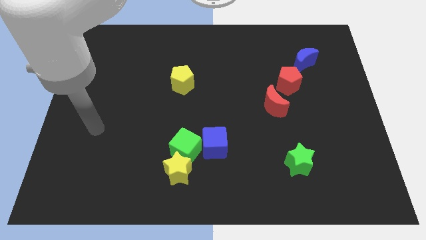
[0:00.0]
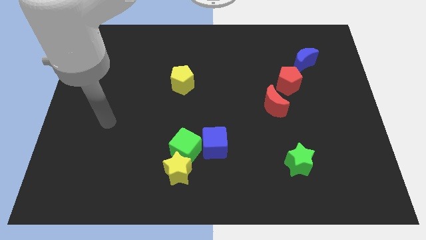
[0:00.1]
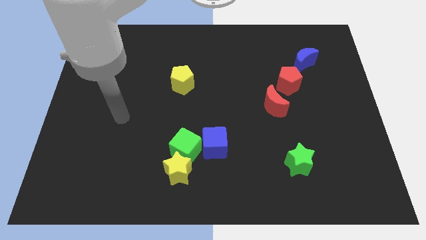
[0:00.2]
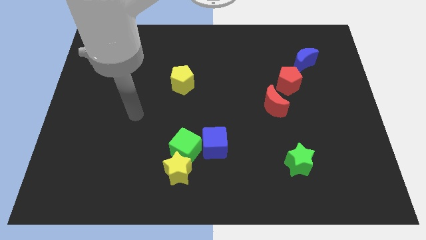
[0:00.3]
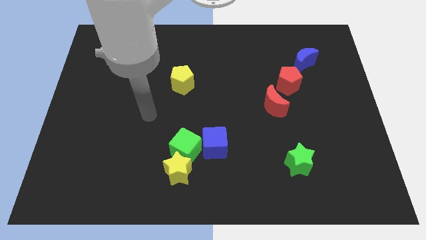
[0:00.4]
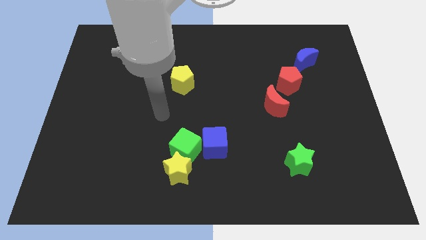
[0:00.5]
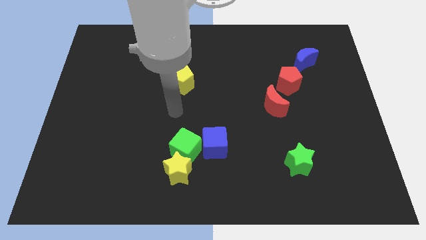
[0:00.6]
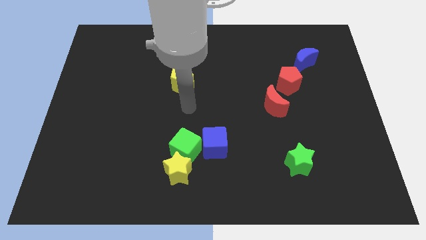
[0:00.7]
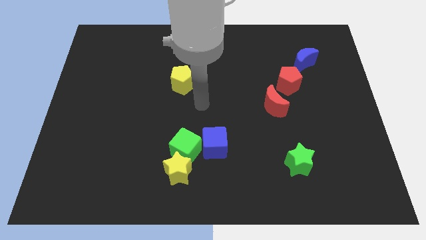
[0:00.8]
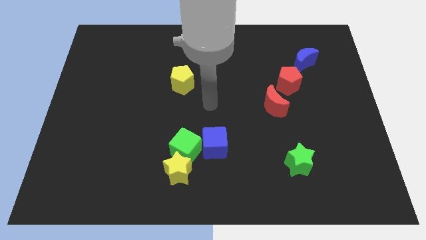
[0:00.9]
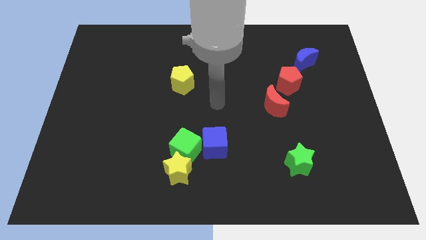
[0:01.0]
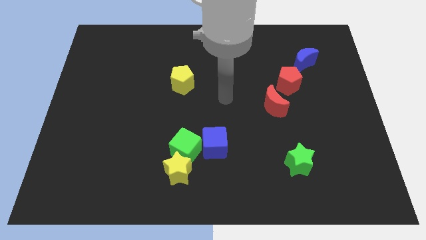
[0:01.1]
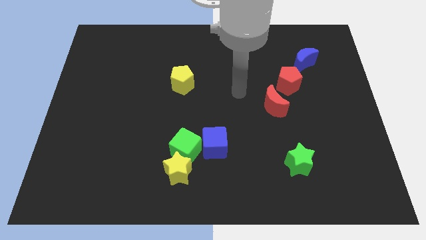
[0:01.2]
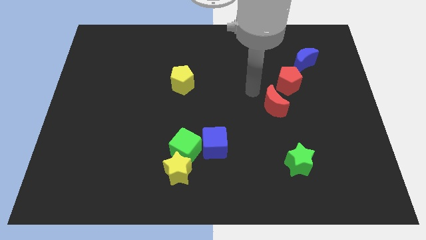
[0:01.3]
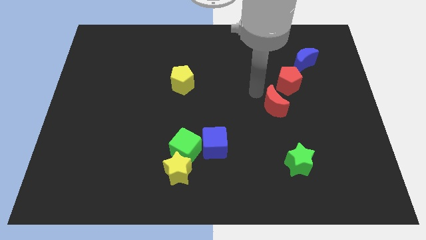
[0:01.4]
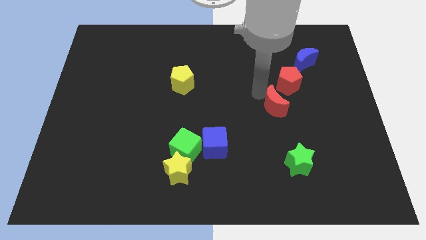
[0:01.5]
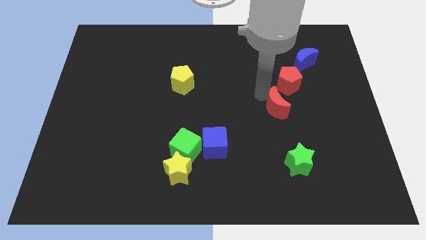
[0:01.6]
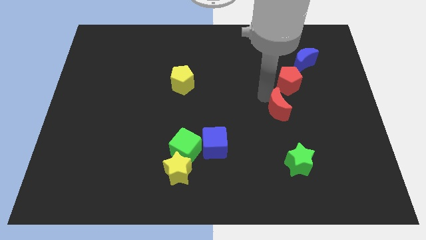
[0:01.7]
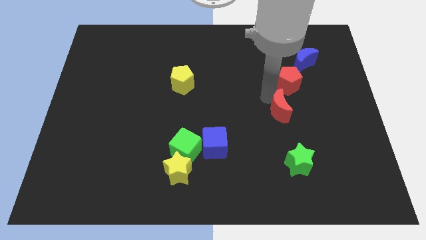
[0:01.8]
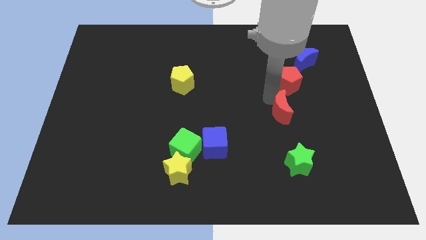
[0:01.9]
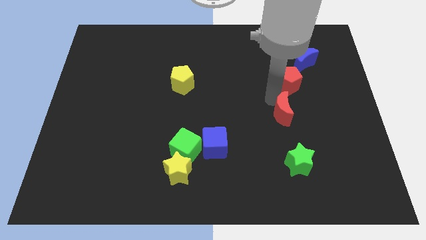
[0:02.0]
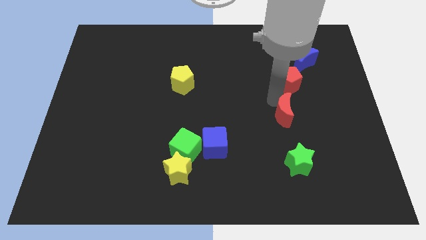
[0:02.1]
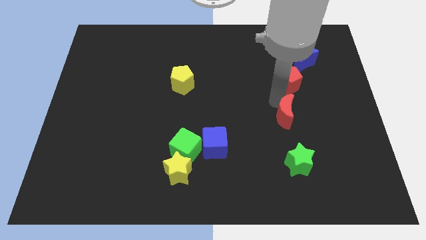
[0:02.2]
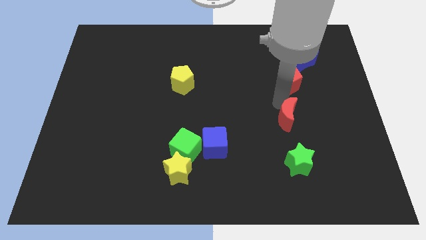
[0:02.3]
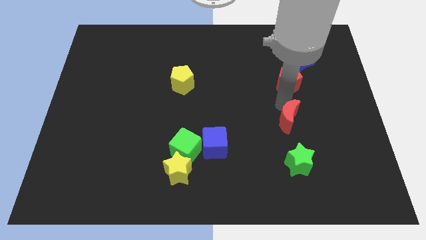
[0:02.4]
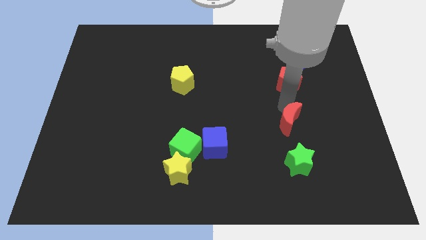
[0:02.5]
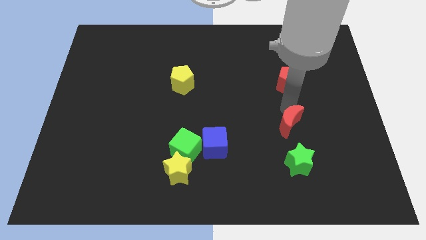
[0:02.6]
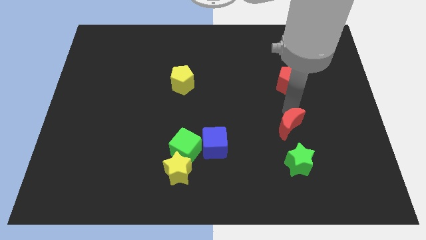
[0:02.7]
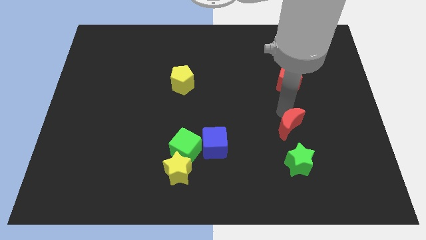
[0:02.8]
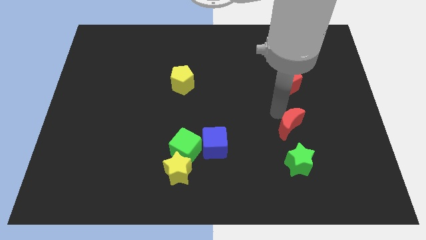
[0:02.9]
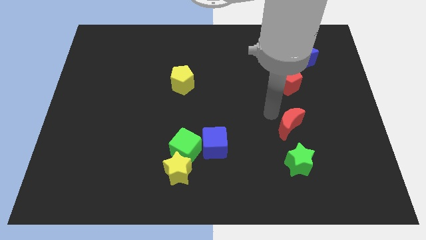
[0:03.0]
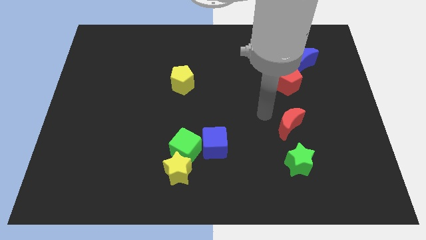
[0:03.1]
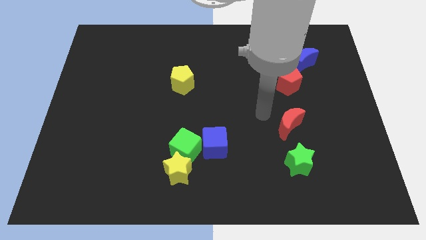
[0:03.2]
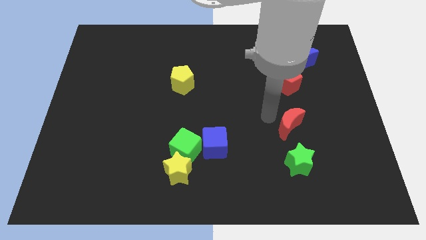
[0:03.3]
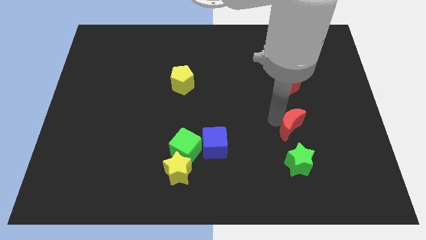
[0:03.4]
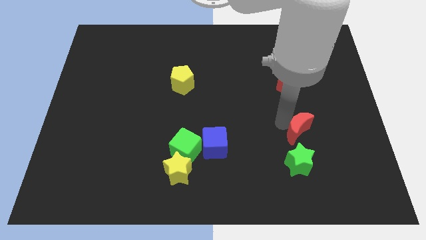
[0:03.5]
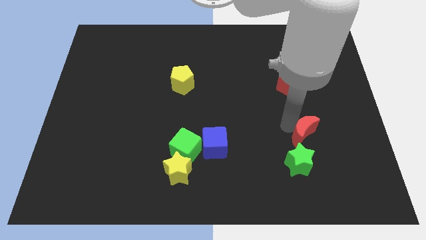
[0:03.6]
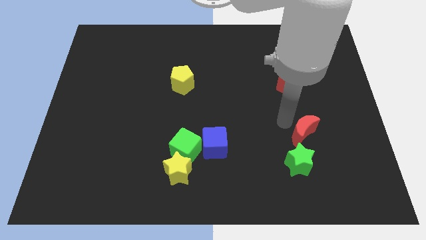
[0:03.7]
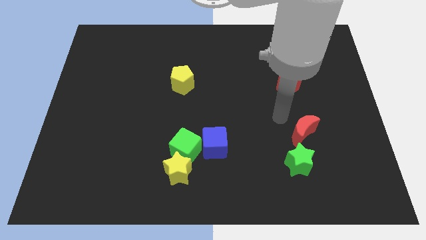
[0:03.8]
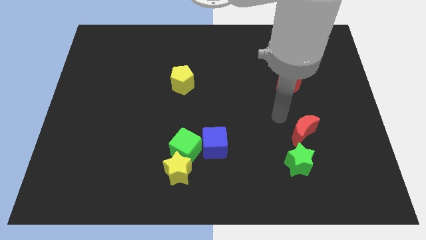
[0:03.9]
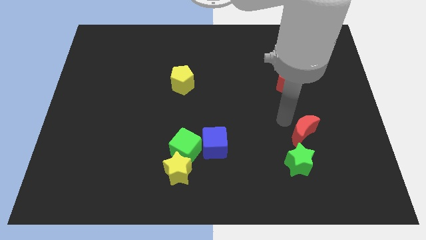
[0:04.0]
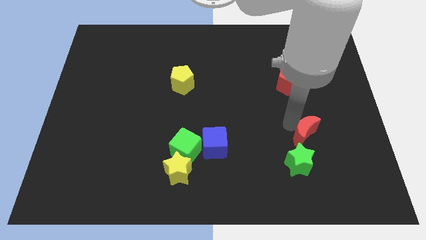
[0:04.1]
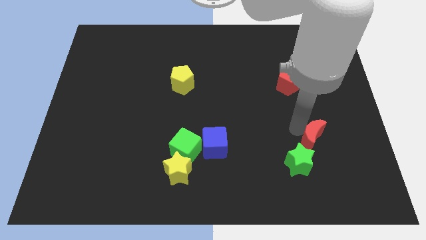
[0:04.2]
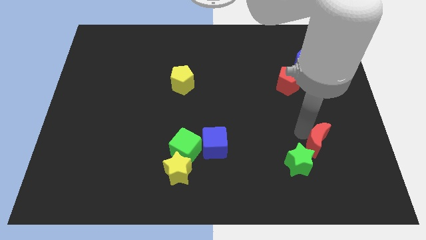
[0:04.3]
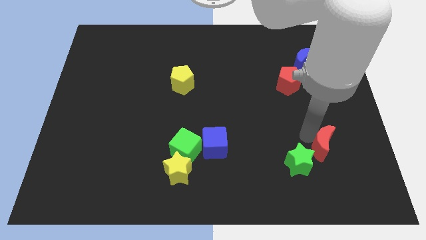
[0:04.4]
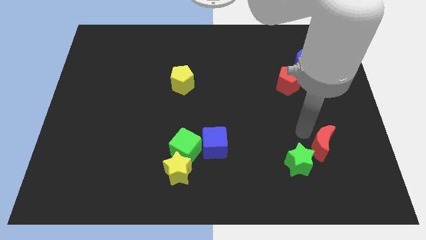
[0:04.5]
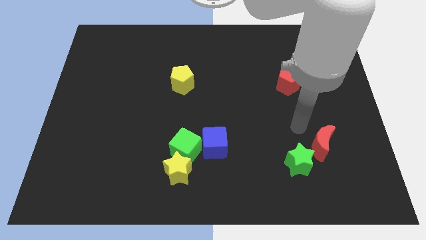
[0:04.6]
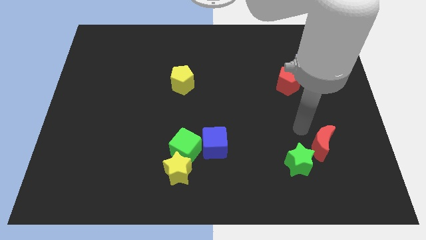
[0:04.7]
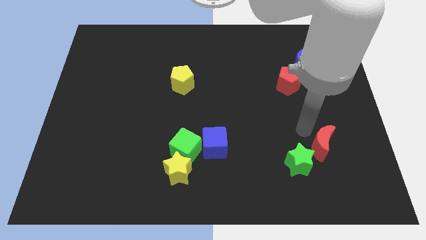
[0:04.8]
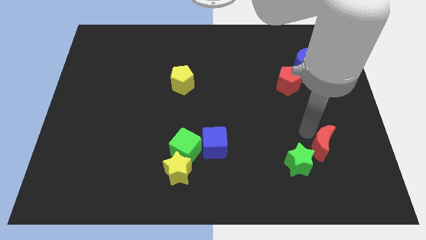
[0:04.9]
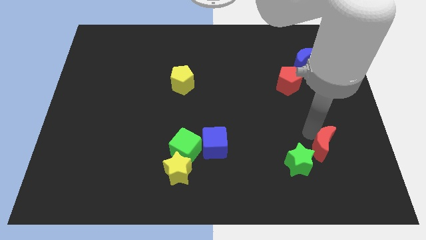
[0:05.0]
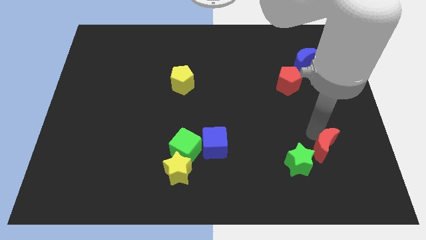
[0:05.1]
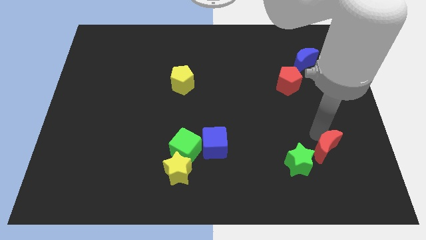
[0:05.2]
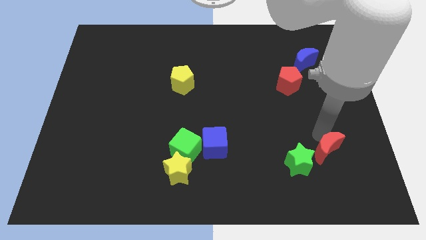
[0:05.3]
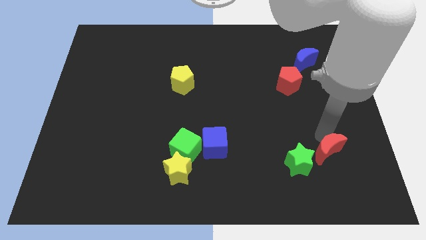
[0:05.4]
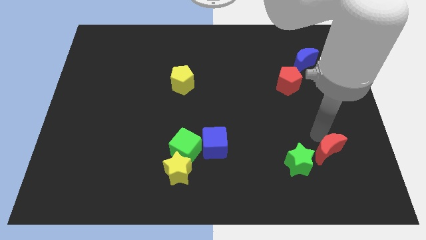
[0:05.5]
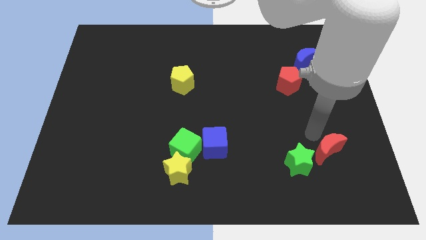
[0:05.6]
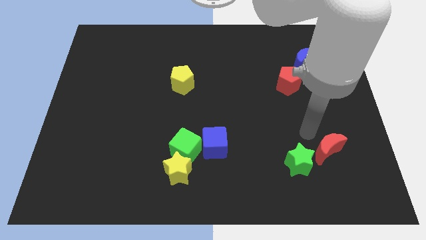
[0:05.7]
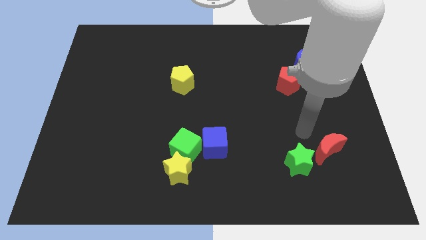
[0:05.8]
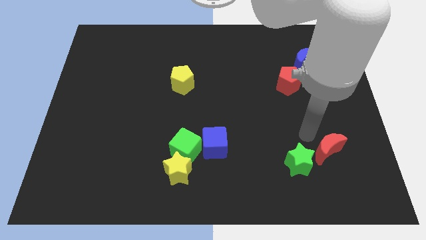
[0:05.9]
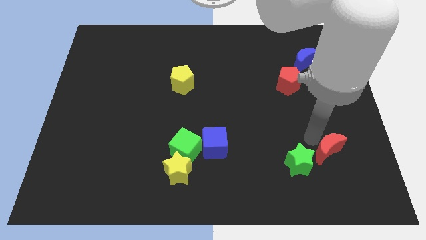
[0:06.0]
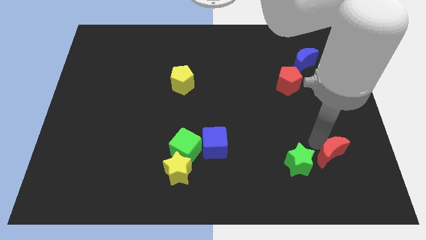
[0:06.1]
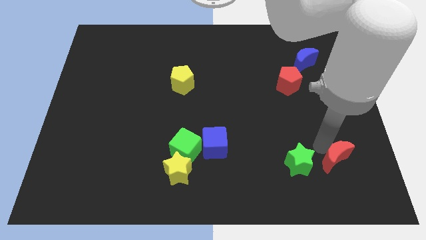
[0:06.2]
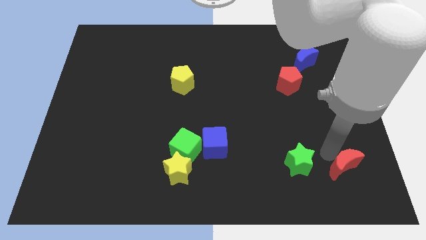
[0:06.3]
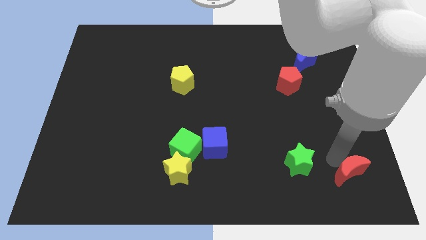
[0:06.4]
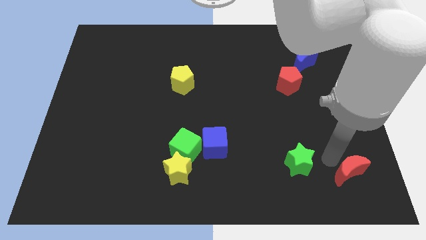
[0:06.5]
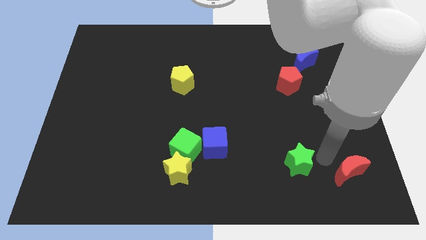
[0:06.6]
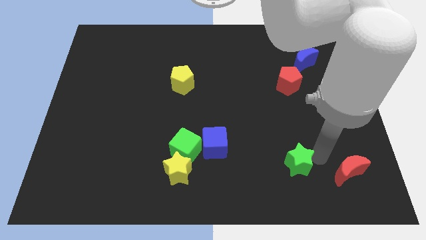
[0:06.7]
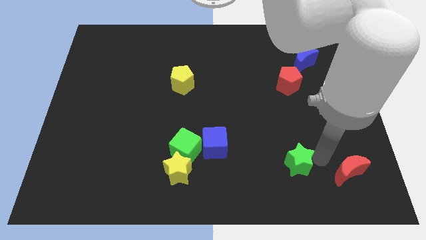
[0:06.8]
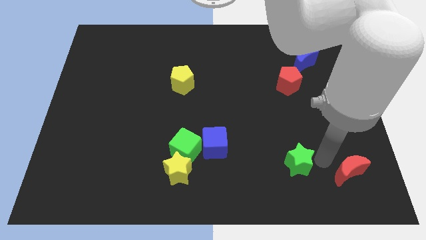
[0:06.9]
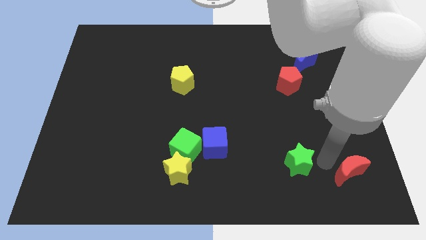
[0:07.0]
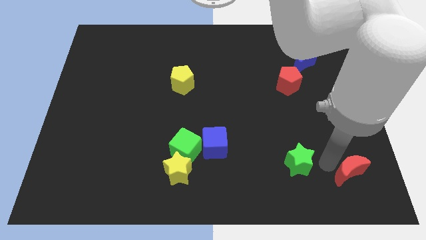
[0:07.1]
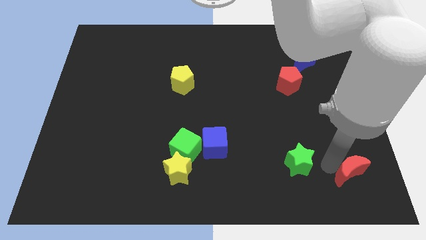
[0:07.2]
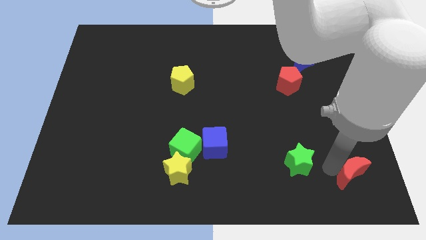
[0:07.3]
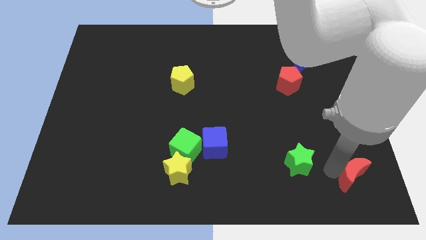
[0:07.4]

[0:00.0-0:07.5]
move the red moon to the lower right corner
